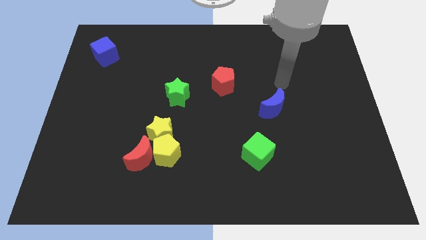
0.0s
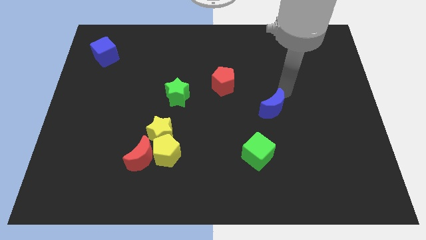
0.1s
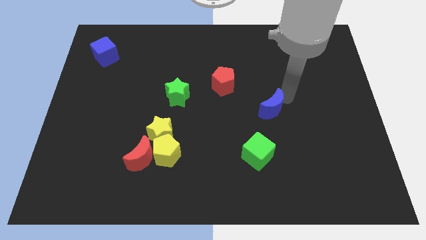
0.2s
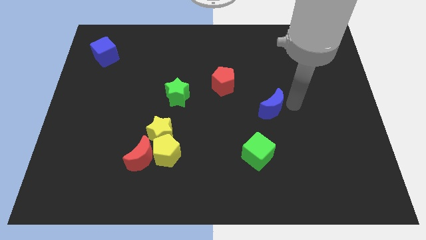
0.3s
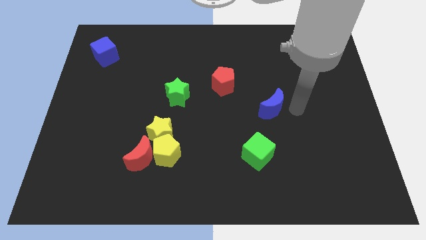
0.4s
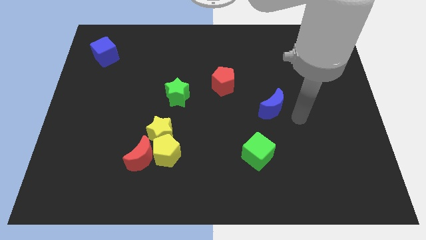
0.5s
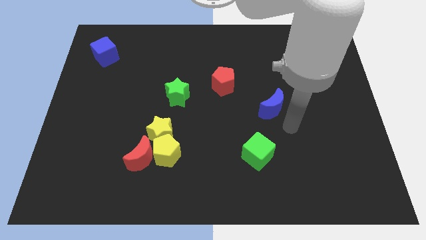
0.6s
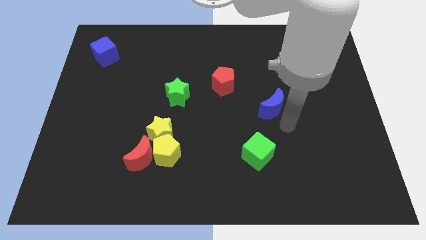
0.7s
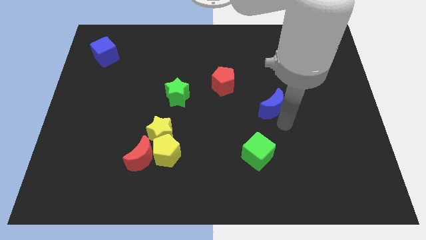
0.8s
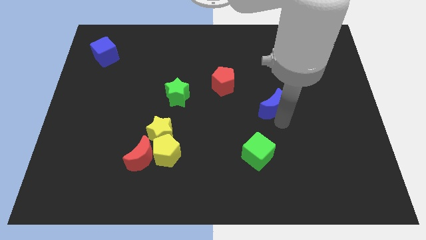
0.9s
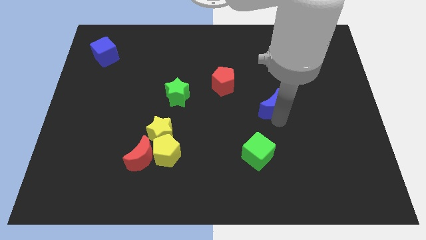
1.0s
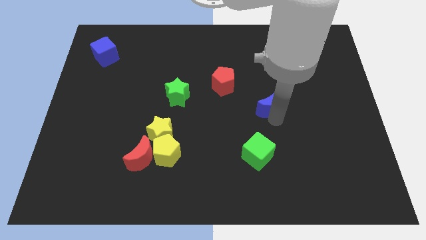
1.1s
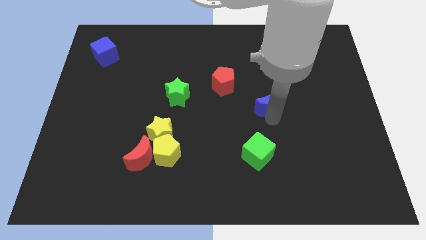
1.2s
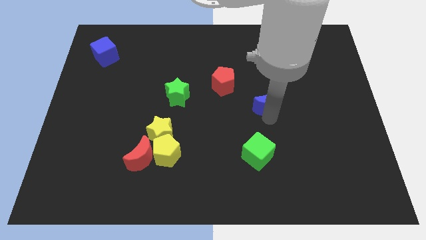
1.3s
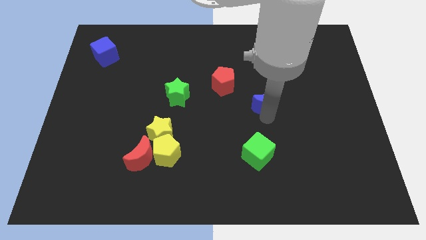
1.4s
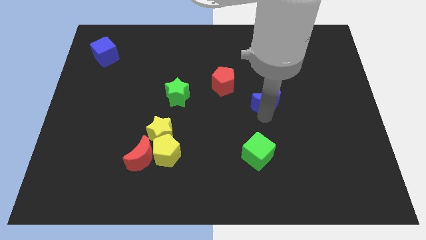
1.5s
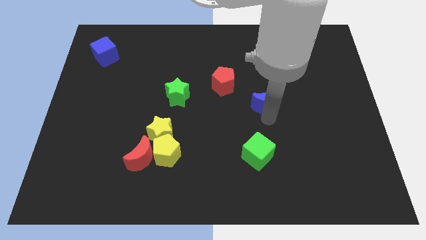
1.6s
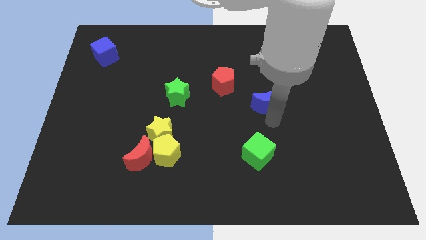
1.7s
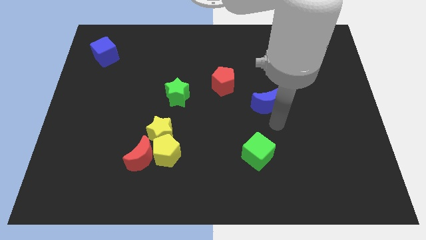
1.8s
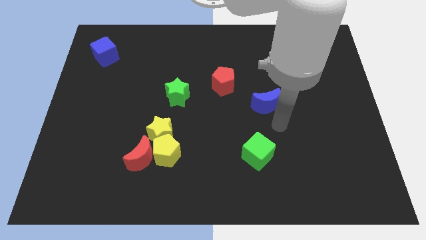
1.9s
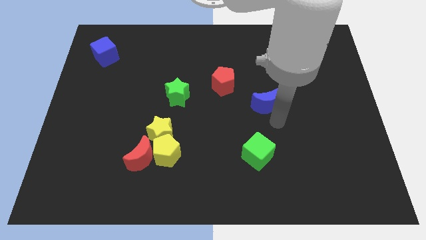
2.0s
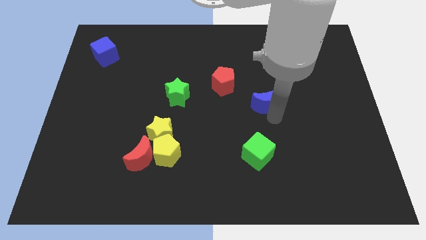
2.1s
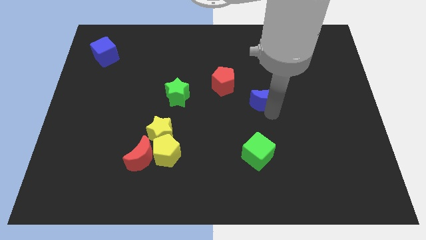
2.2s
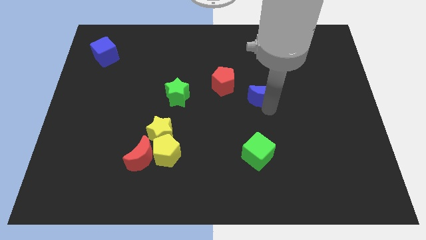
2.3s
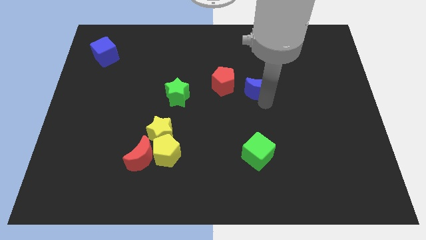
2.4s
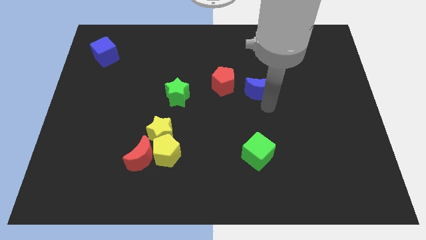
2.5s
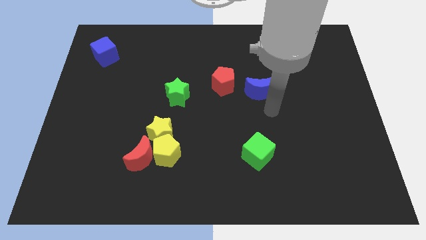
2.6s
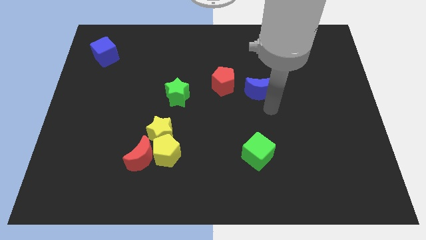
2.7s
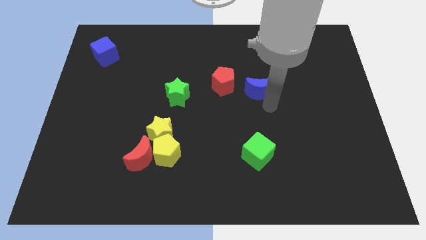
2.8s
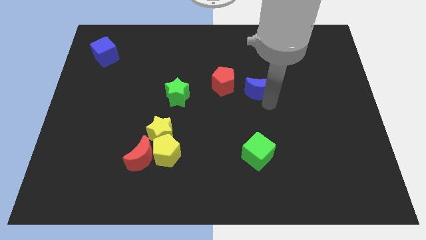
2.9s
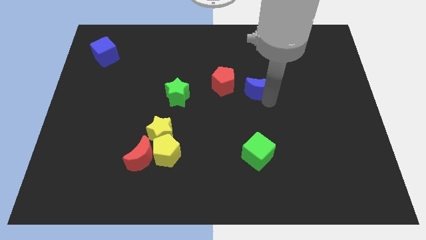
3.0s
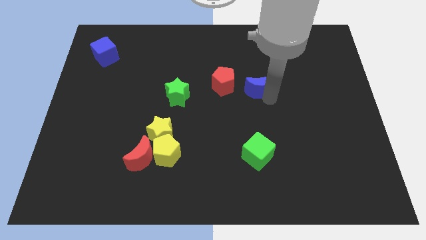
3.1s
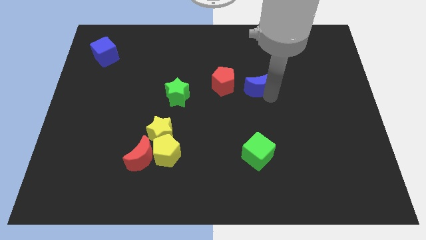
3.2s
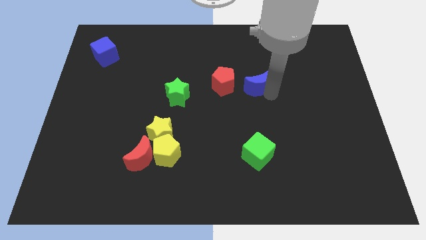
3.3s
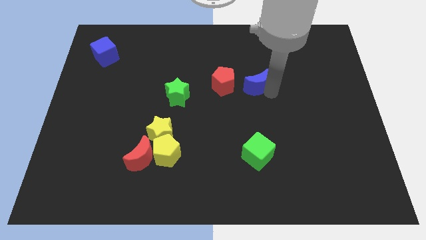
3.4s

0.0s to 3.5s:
slightly move the blue moon upwards and left

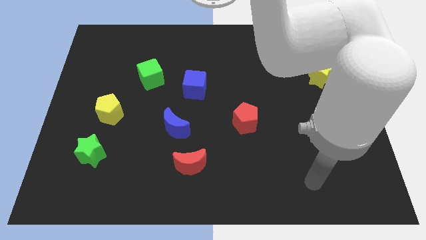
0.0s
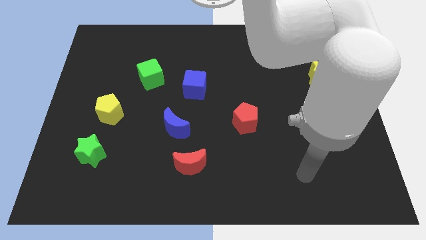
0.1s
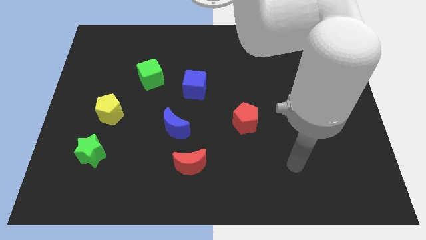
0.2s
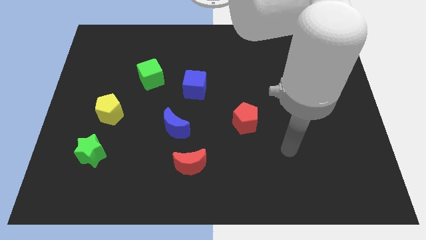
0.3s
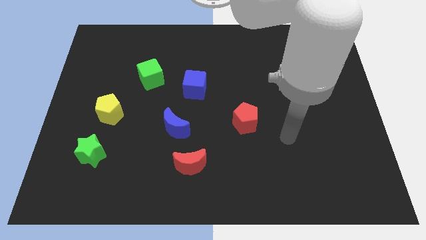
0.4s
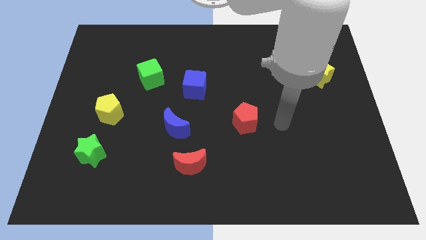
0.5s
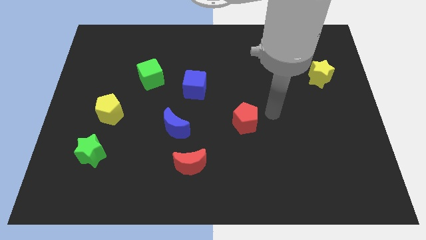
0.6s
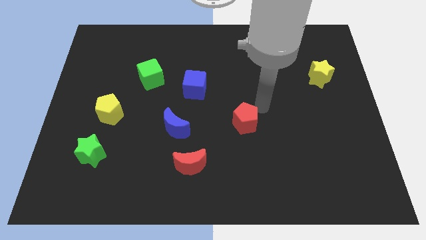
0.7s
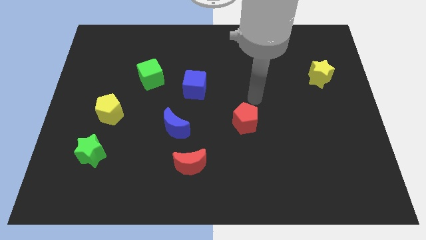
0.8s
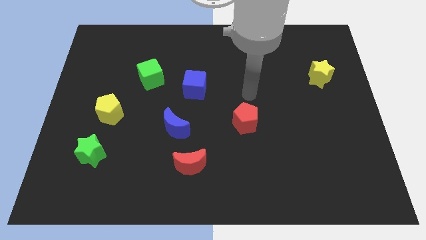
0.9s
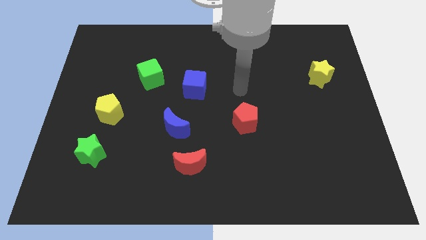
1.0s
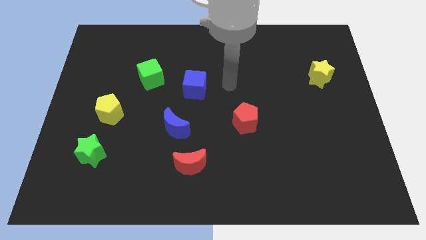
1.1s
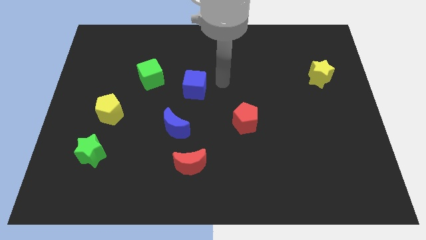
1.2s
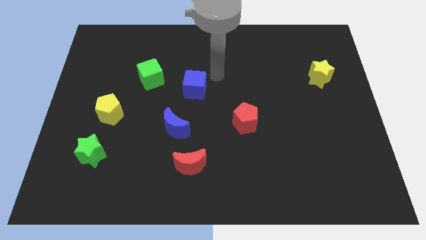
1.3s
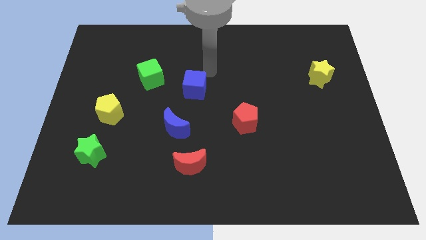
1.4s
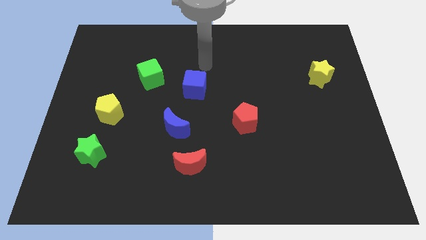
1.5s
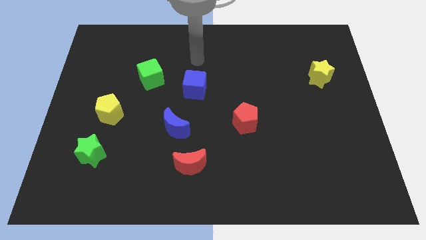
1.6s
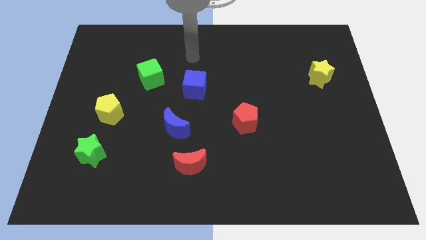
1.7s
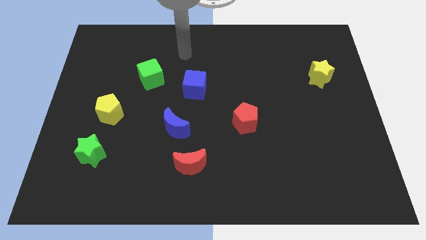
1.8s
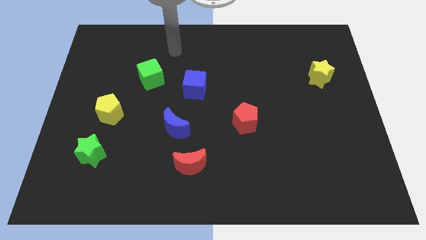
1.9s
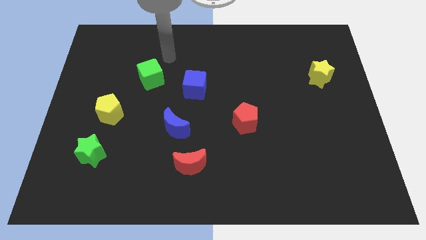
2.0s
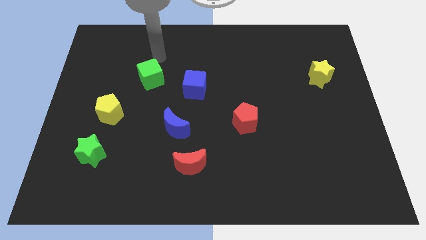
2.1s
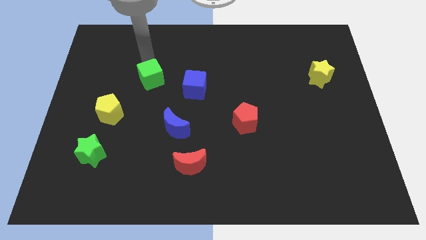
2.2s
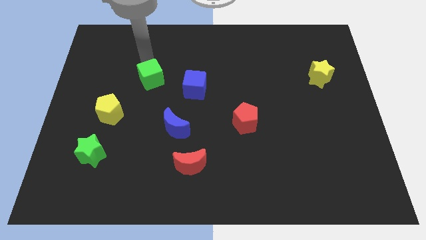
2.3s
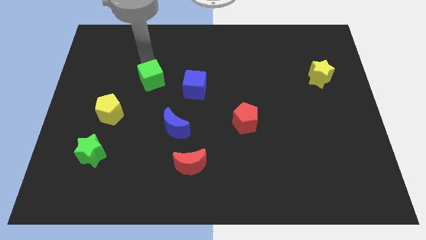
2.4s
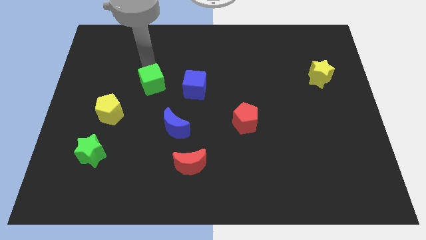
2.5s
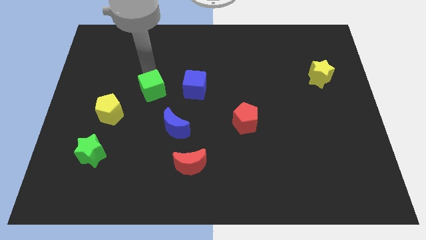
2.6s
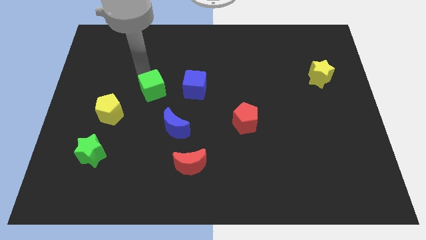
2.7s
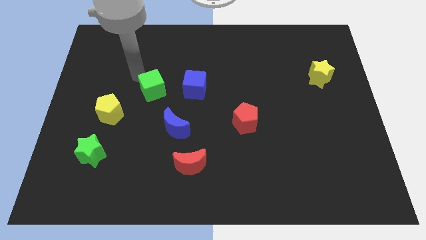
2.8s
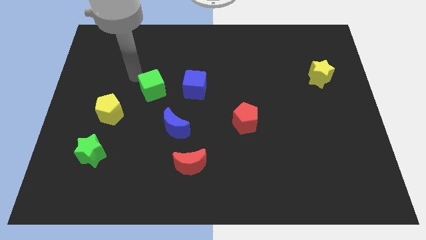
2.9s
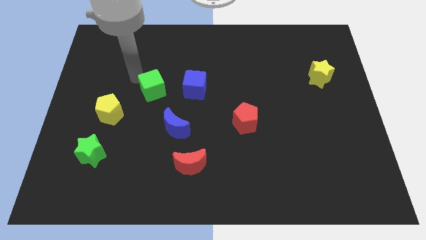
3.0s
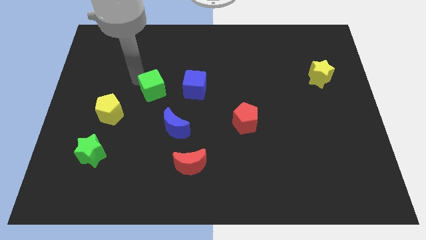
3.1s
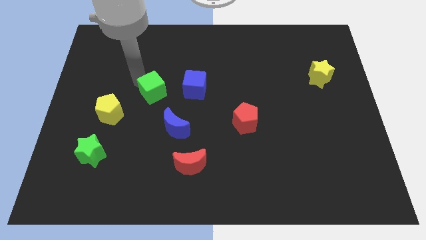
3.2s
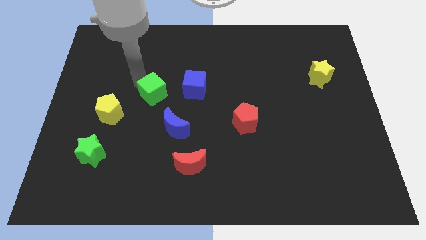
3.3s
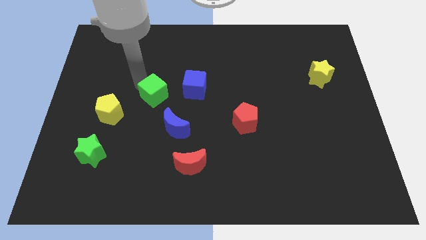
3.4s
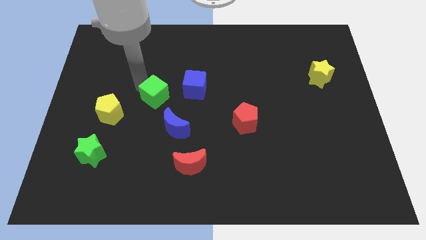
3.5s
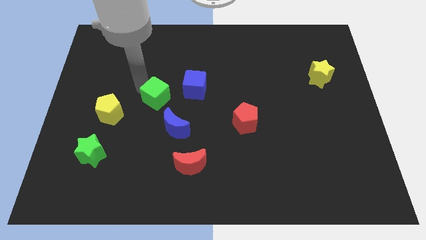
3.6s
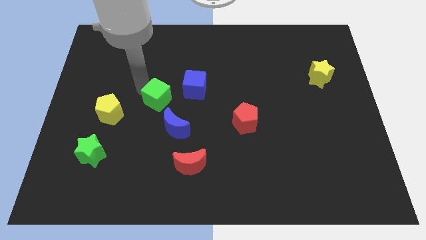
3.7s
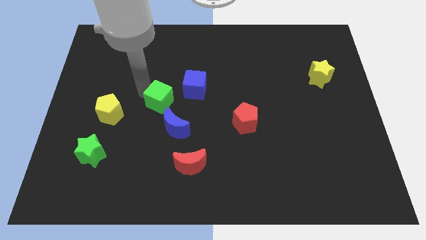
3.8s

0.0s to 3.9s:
slightly slide the green cube downwards and right diagonally

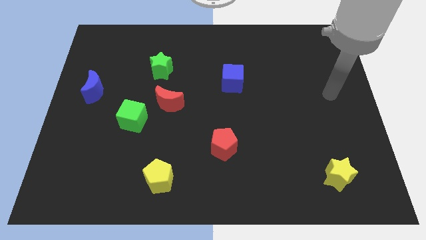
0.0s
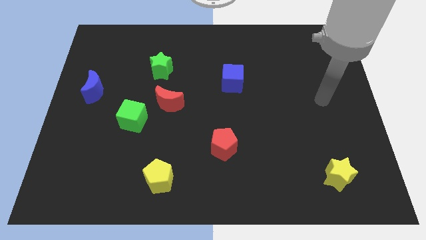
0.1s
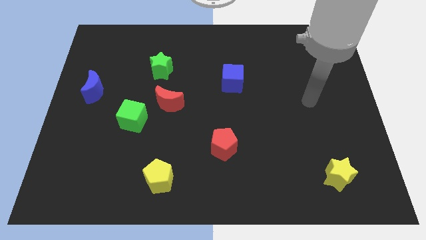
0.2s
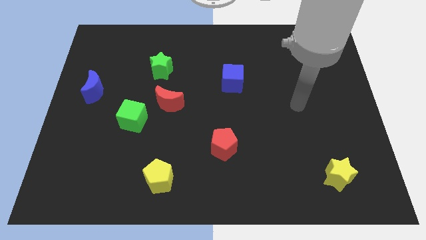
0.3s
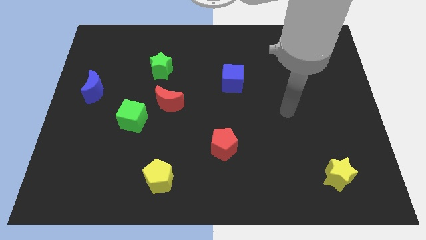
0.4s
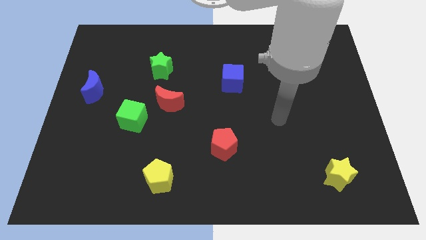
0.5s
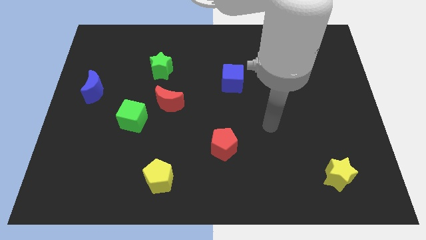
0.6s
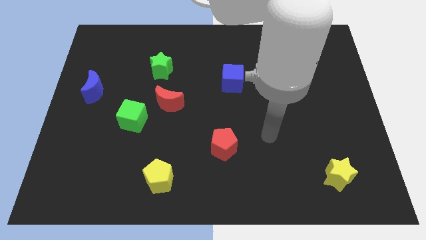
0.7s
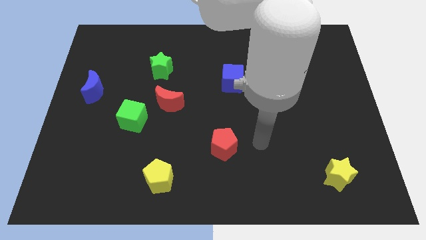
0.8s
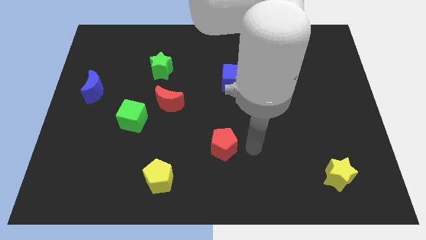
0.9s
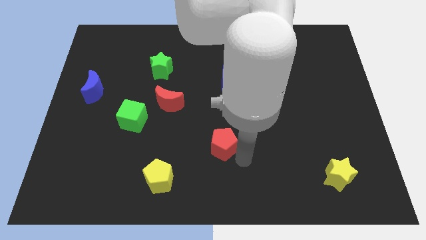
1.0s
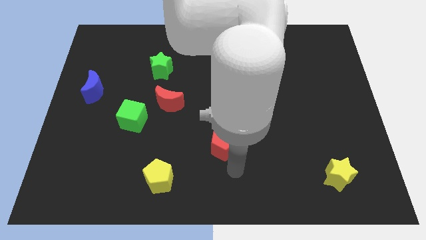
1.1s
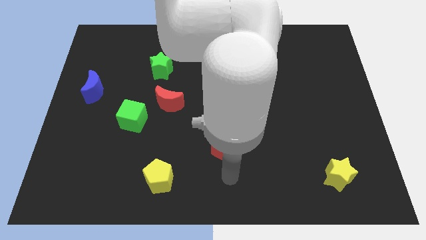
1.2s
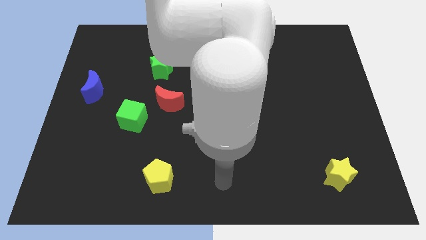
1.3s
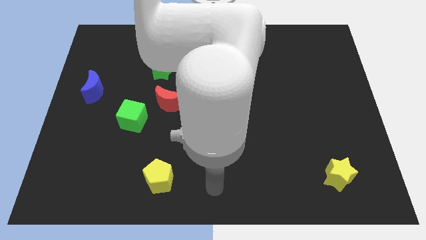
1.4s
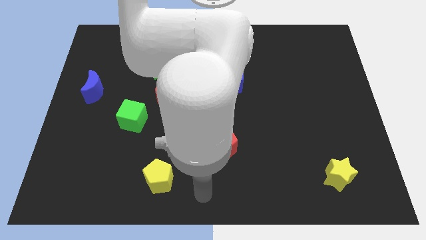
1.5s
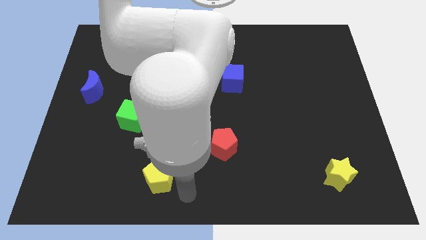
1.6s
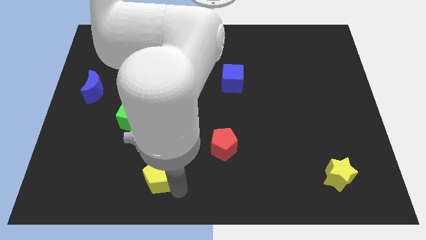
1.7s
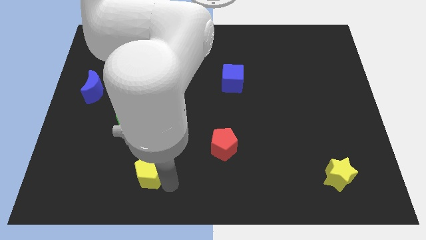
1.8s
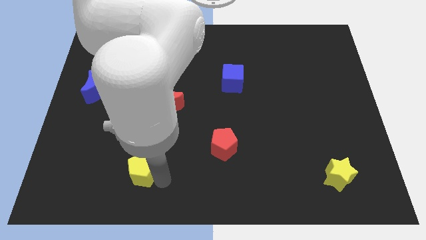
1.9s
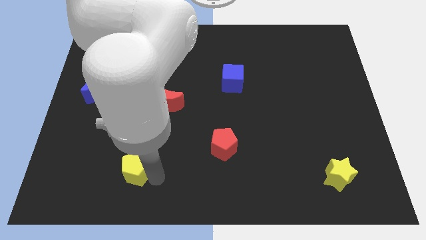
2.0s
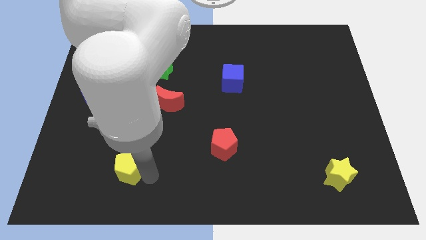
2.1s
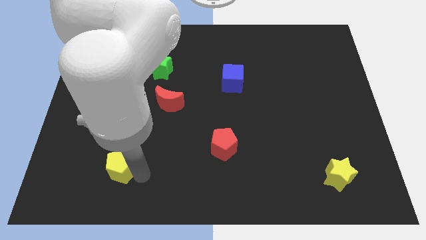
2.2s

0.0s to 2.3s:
slightly push the yellow pentagon upwards and left diagonally
